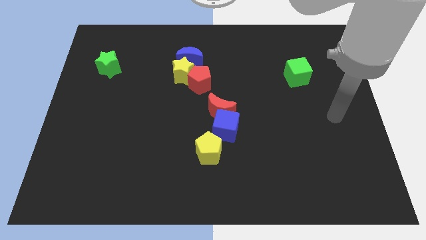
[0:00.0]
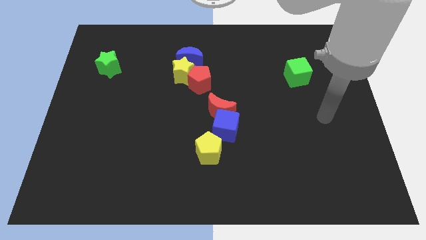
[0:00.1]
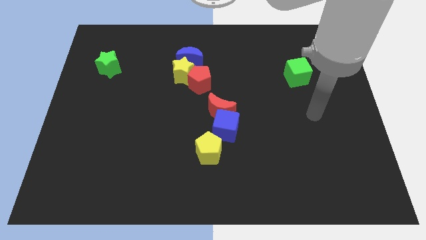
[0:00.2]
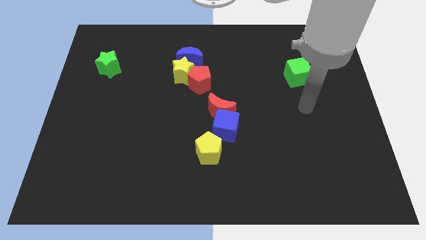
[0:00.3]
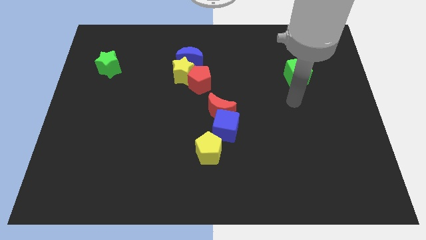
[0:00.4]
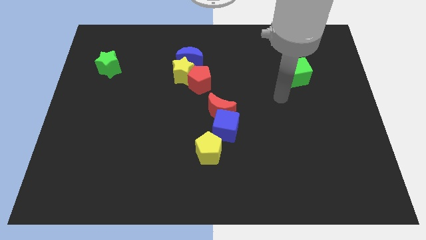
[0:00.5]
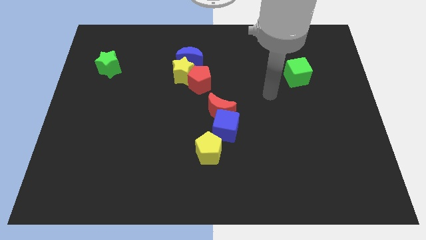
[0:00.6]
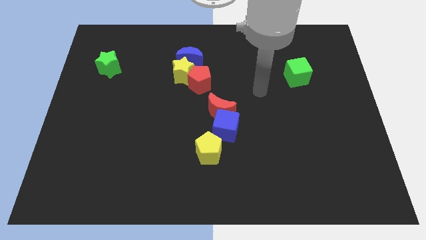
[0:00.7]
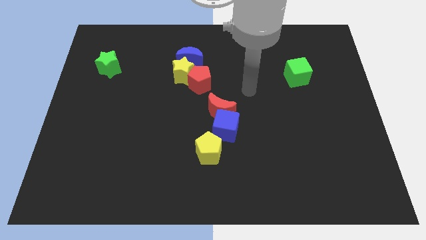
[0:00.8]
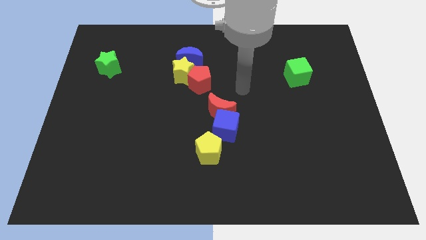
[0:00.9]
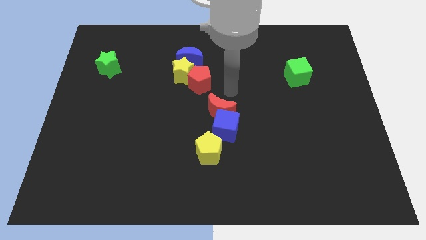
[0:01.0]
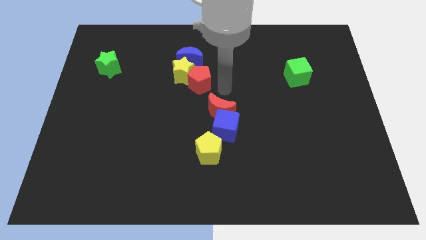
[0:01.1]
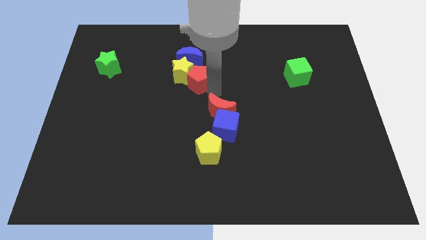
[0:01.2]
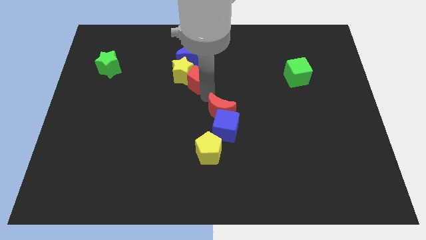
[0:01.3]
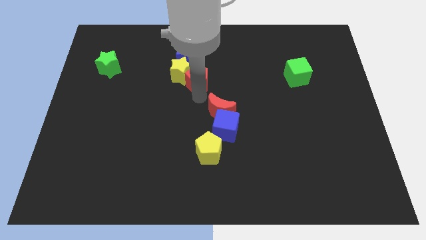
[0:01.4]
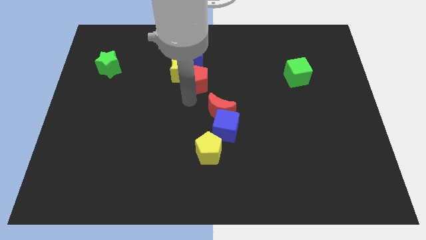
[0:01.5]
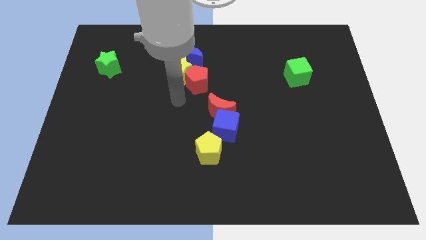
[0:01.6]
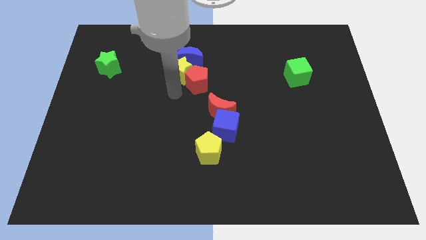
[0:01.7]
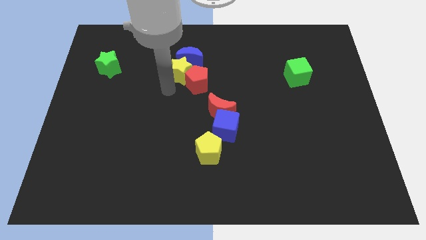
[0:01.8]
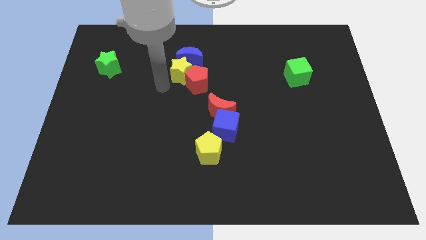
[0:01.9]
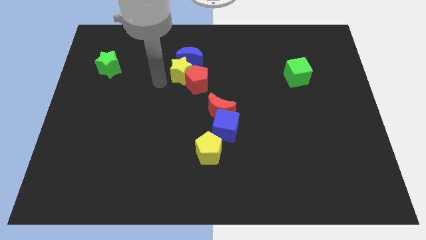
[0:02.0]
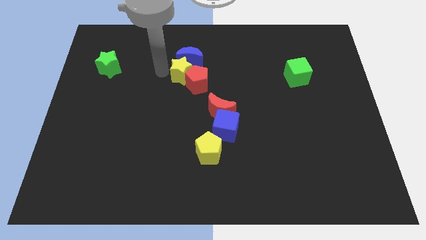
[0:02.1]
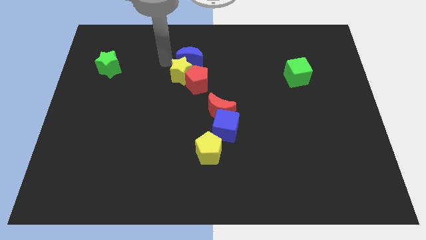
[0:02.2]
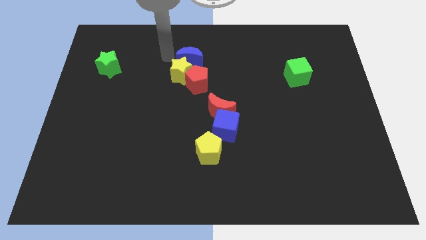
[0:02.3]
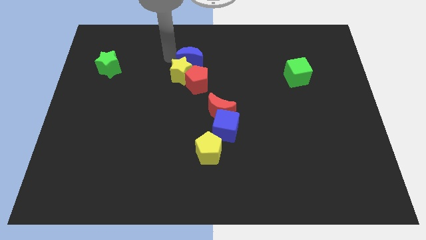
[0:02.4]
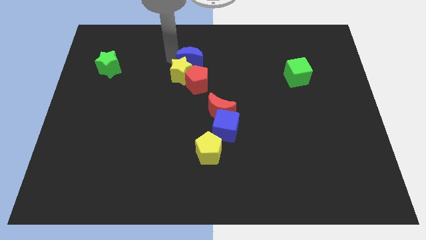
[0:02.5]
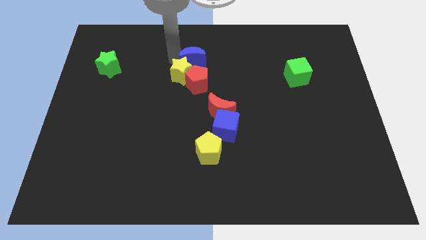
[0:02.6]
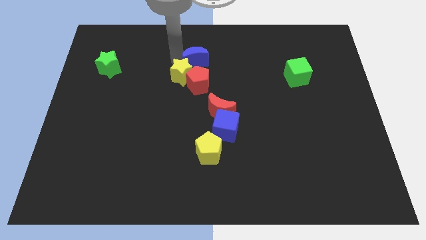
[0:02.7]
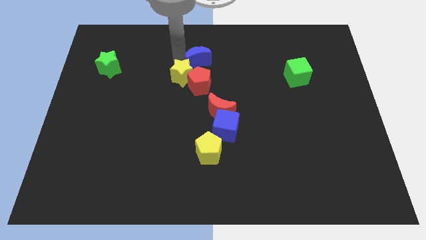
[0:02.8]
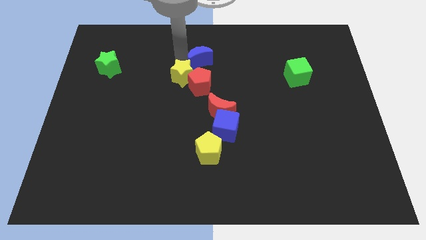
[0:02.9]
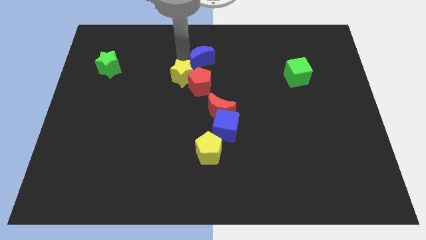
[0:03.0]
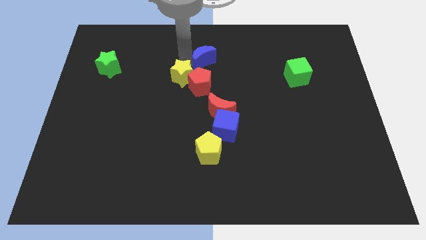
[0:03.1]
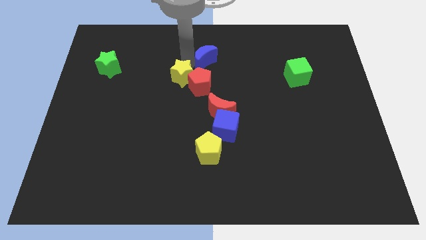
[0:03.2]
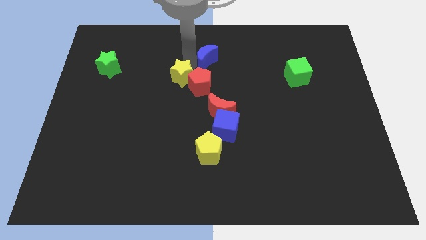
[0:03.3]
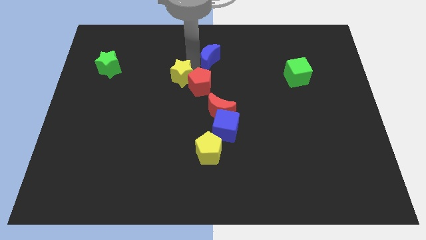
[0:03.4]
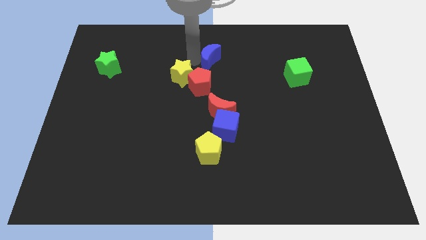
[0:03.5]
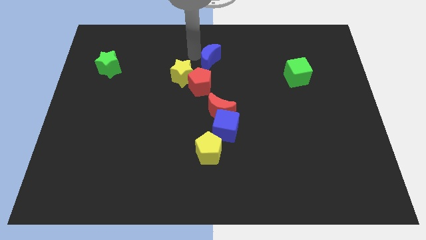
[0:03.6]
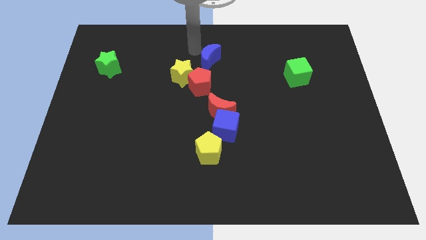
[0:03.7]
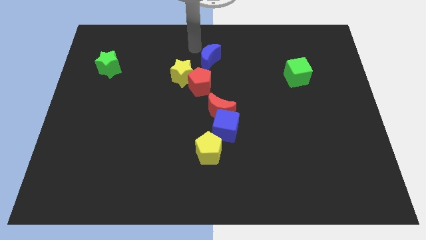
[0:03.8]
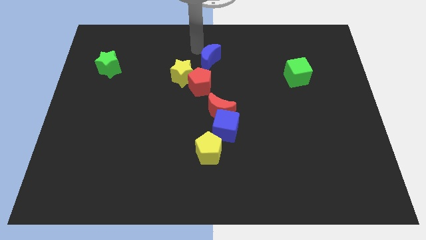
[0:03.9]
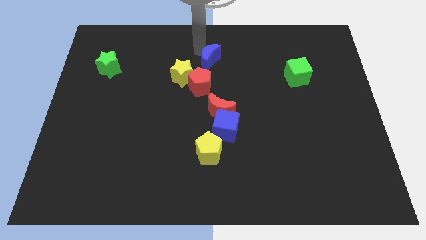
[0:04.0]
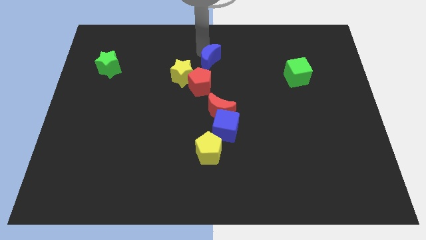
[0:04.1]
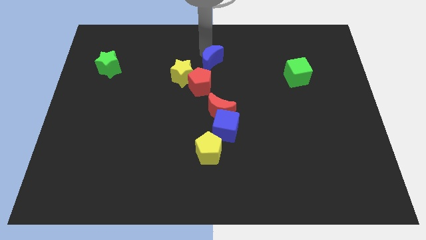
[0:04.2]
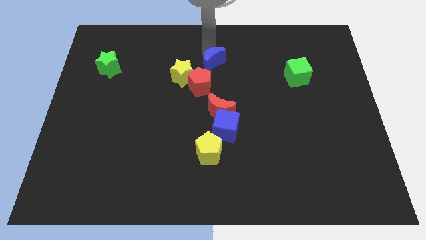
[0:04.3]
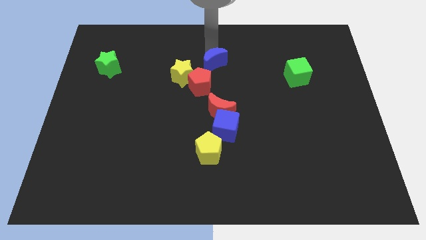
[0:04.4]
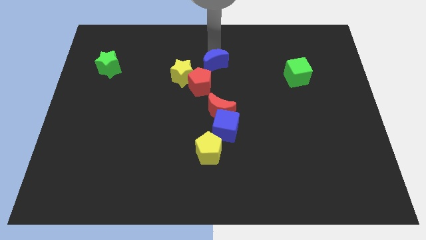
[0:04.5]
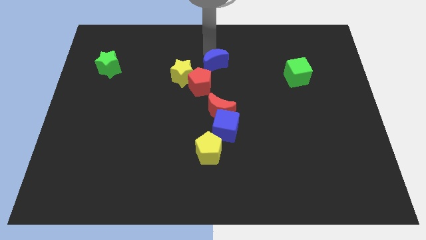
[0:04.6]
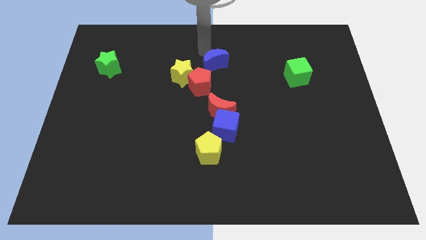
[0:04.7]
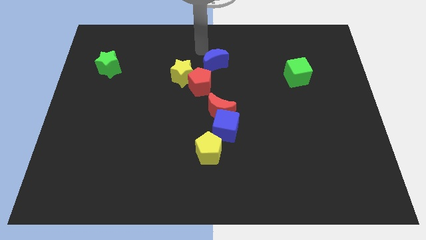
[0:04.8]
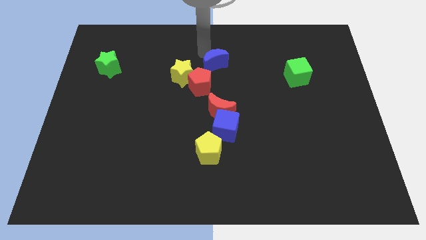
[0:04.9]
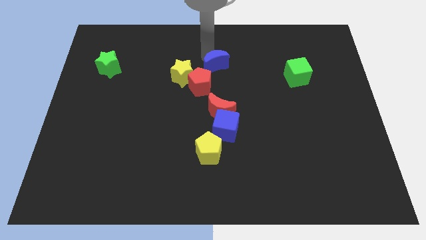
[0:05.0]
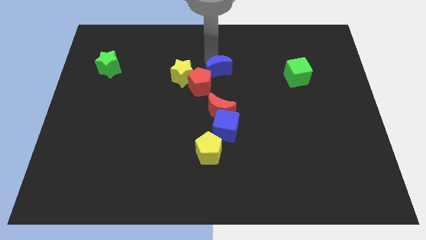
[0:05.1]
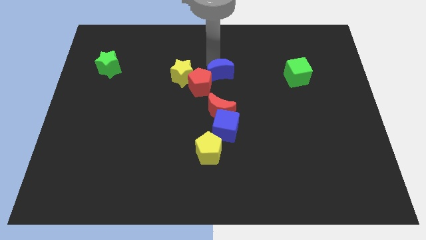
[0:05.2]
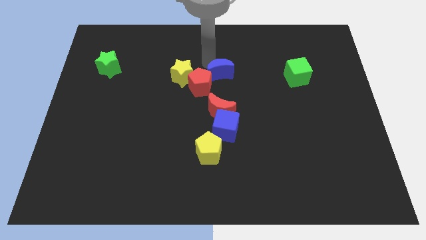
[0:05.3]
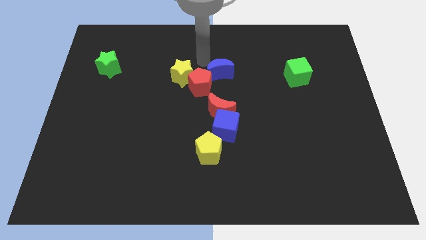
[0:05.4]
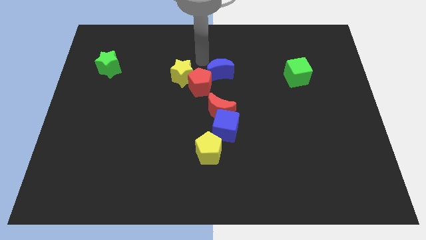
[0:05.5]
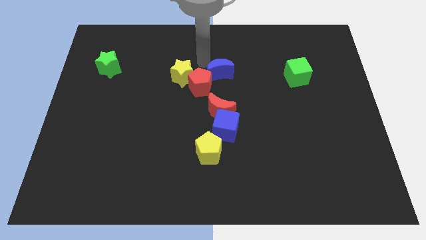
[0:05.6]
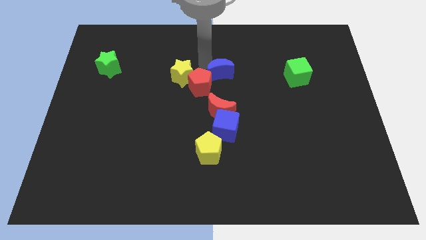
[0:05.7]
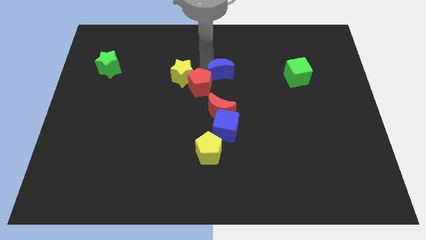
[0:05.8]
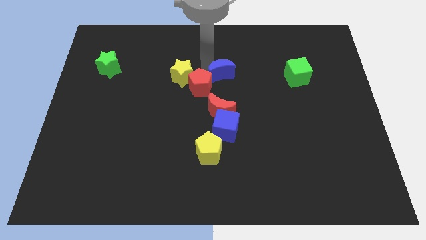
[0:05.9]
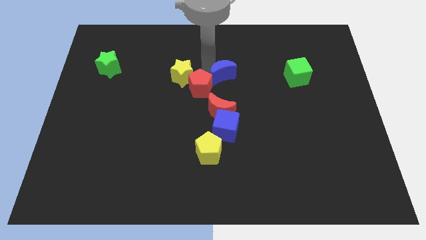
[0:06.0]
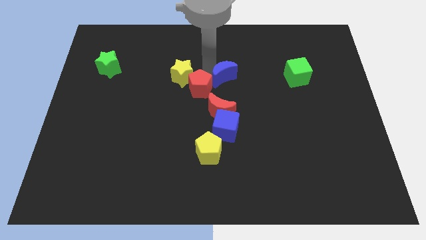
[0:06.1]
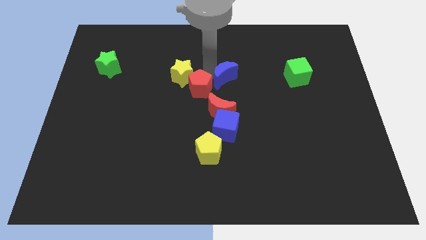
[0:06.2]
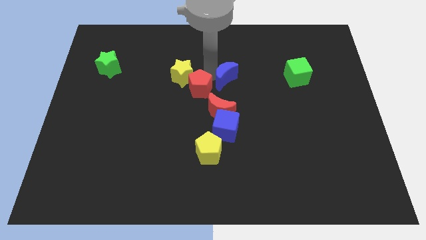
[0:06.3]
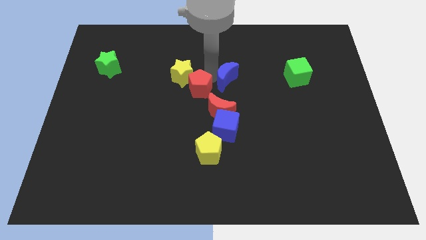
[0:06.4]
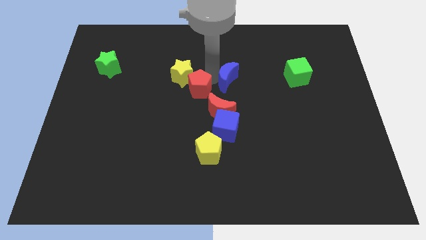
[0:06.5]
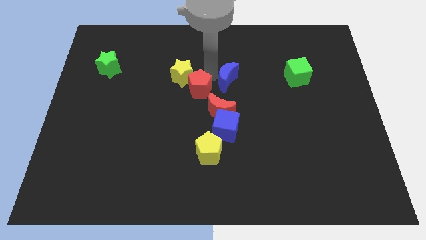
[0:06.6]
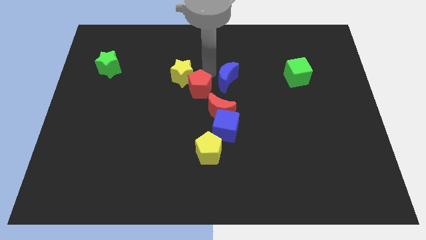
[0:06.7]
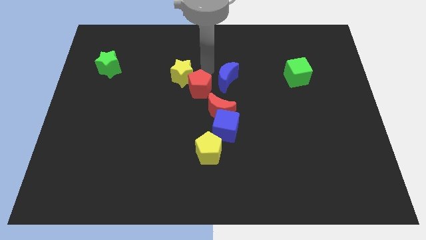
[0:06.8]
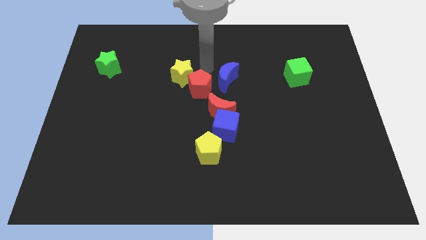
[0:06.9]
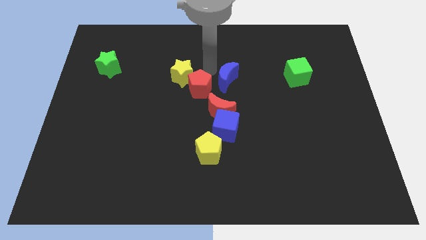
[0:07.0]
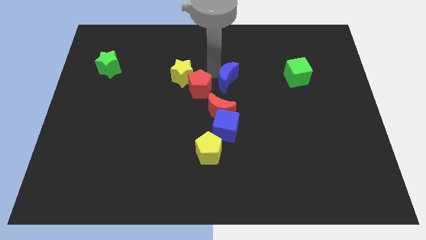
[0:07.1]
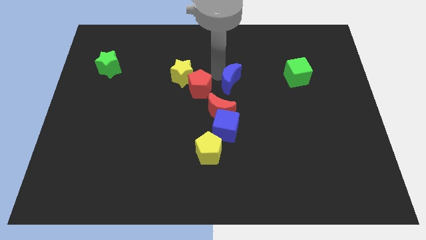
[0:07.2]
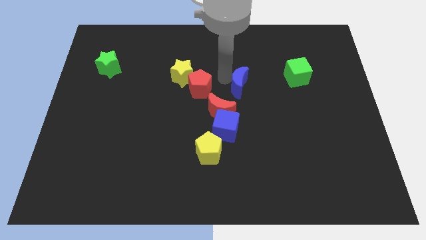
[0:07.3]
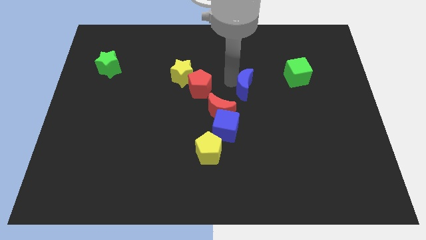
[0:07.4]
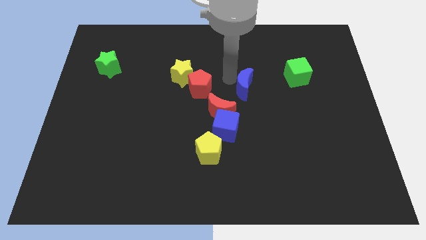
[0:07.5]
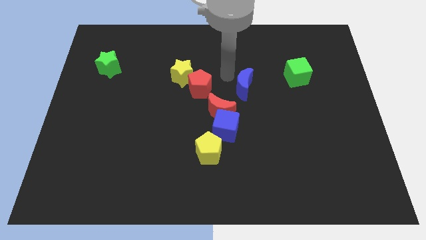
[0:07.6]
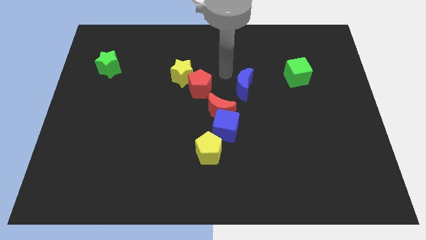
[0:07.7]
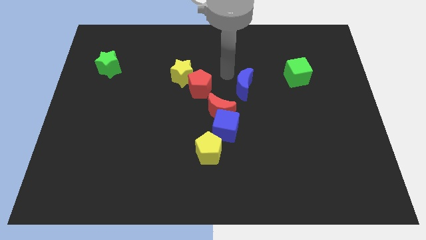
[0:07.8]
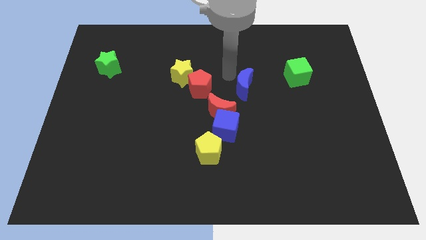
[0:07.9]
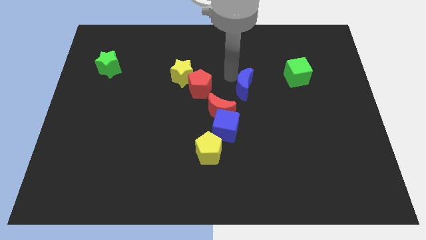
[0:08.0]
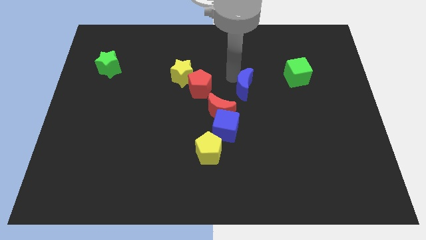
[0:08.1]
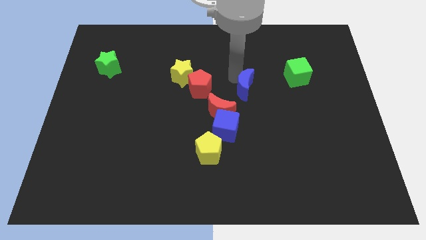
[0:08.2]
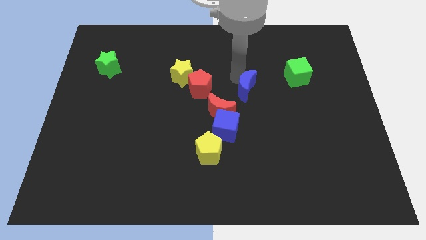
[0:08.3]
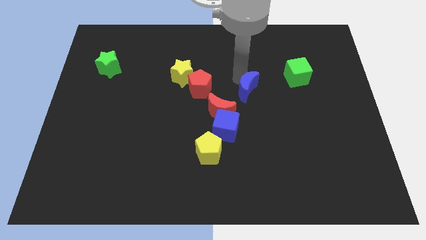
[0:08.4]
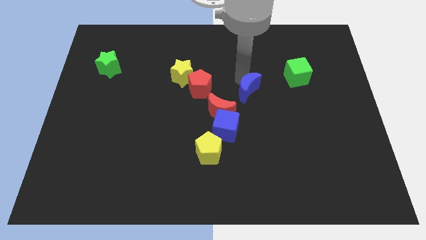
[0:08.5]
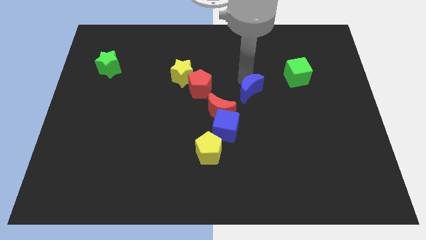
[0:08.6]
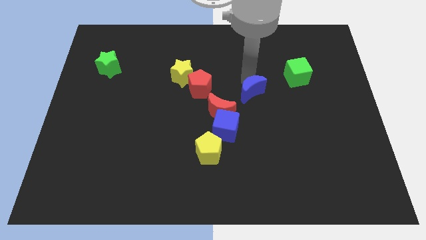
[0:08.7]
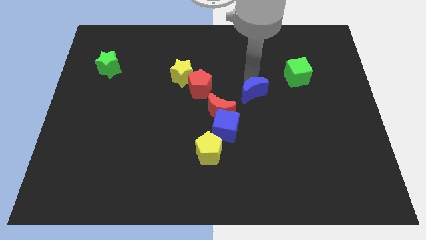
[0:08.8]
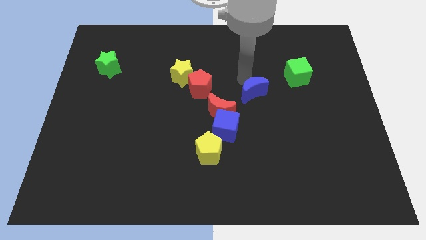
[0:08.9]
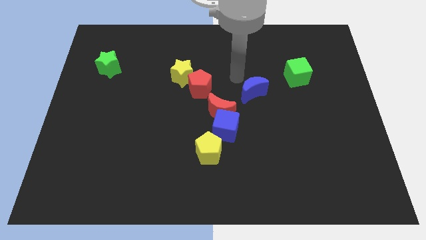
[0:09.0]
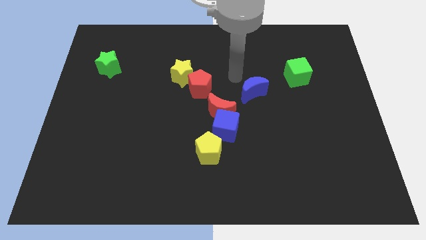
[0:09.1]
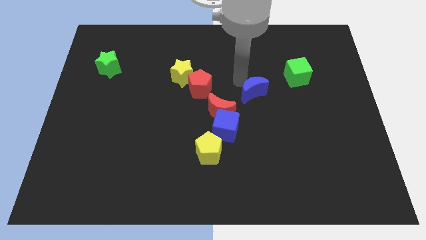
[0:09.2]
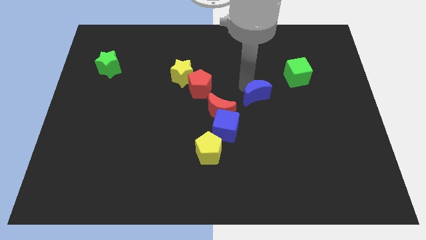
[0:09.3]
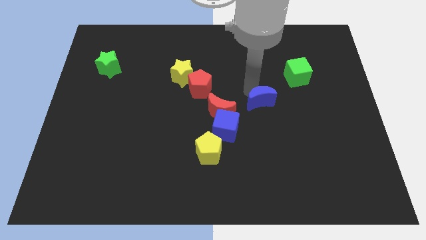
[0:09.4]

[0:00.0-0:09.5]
move the blue moon down and then right
